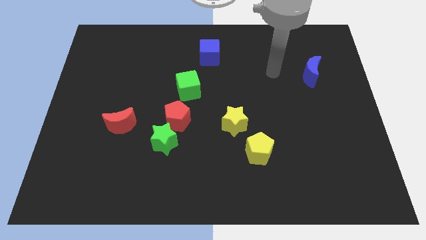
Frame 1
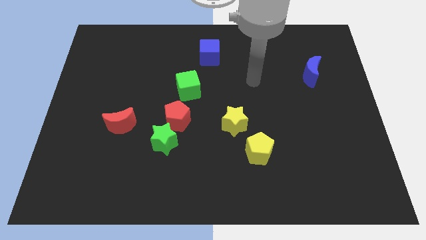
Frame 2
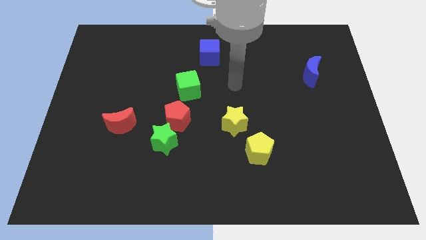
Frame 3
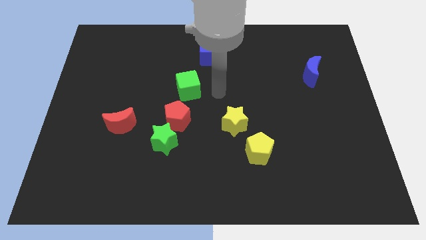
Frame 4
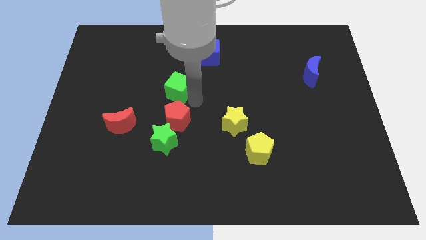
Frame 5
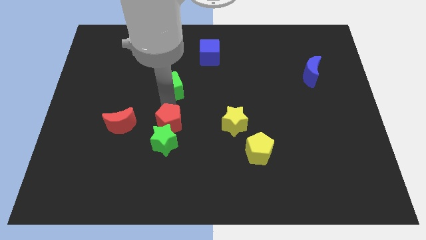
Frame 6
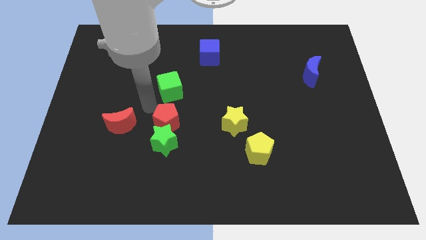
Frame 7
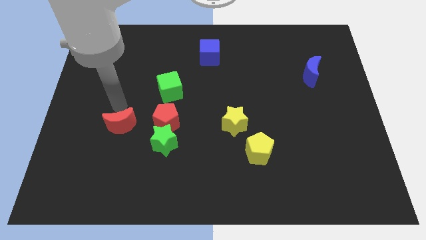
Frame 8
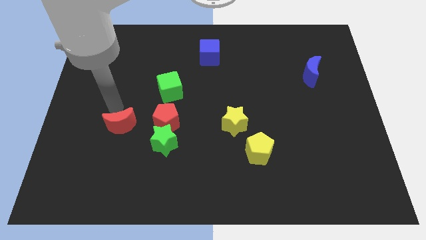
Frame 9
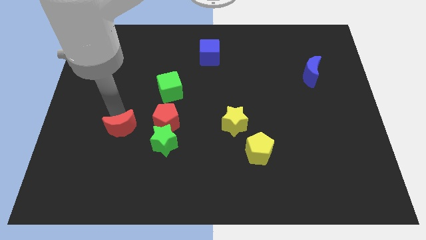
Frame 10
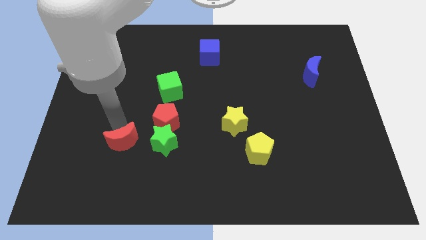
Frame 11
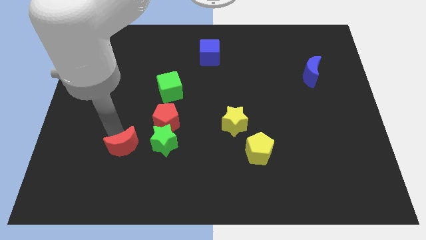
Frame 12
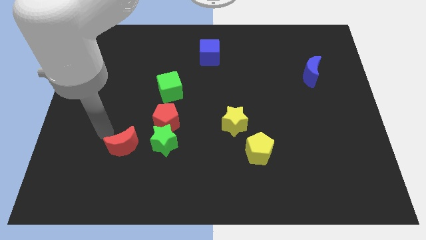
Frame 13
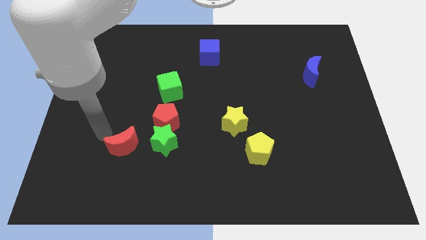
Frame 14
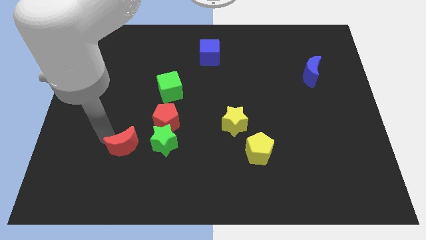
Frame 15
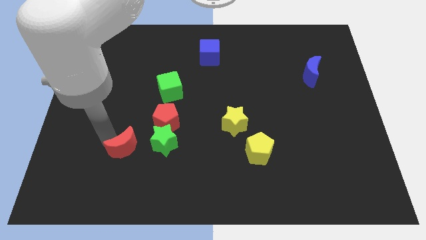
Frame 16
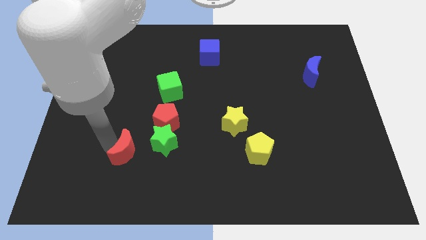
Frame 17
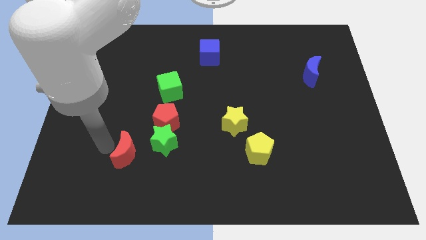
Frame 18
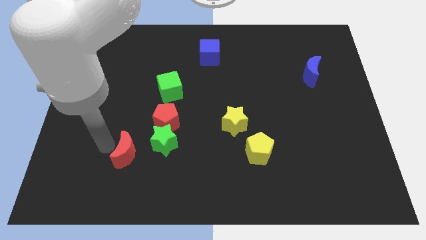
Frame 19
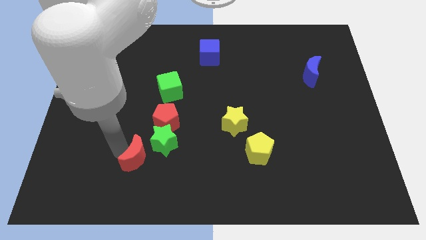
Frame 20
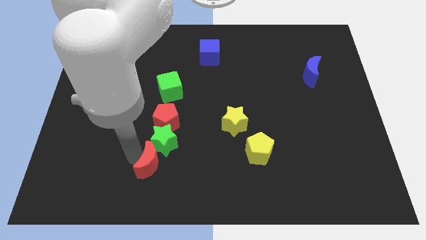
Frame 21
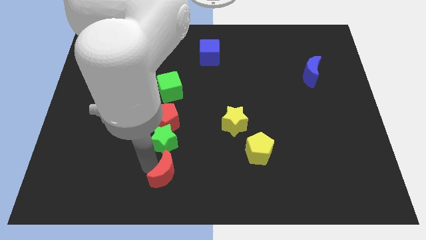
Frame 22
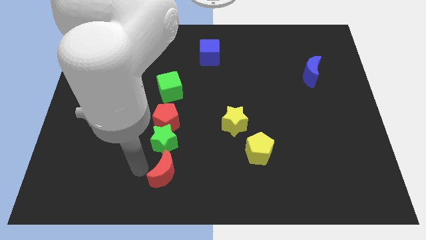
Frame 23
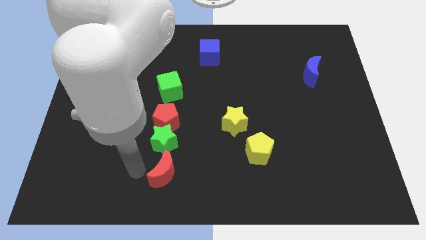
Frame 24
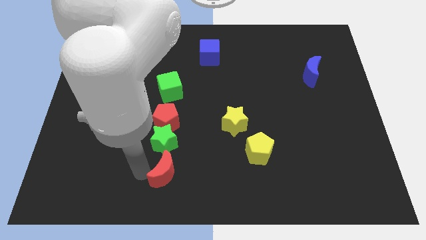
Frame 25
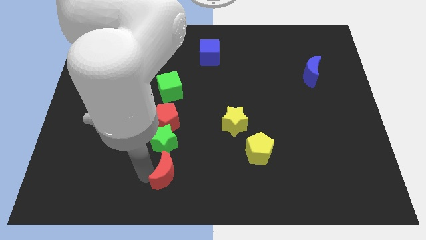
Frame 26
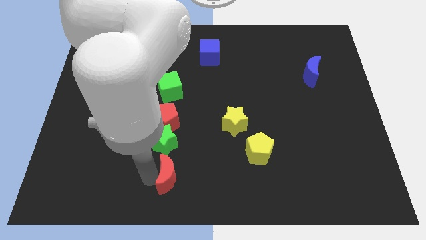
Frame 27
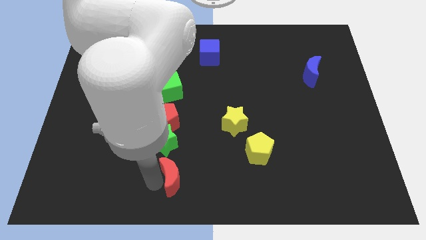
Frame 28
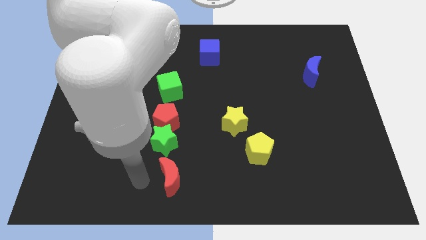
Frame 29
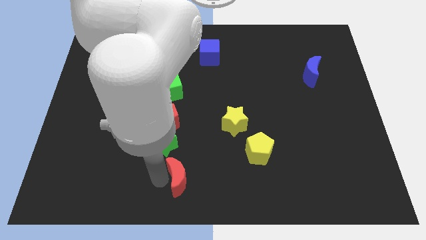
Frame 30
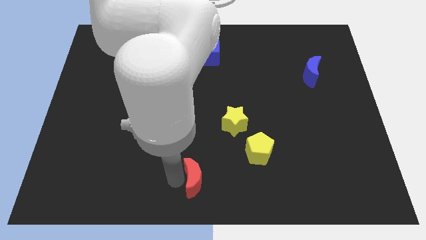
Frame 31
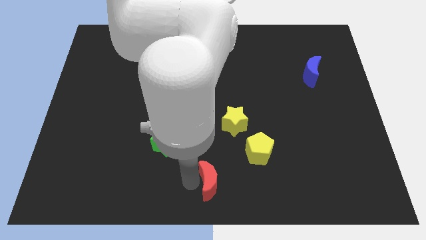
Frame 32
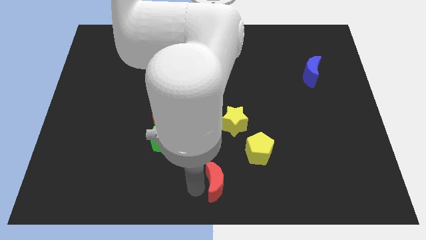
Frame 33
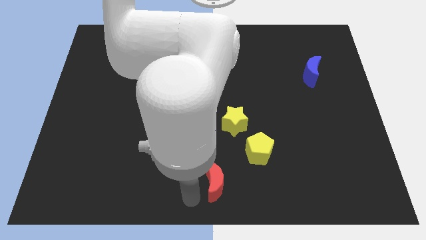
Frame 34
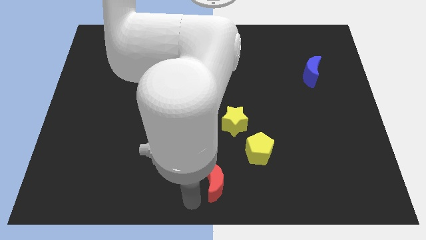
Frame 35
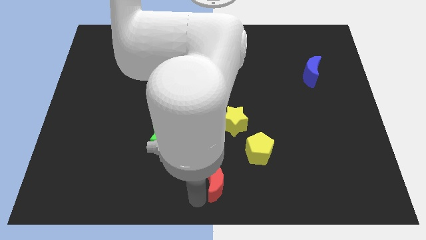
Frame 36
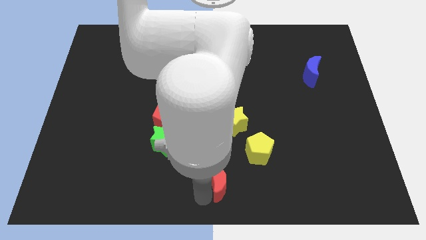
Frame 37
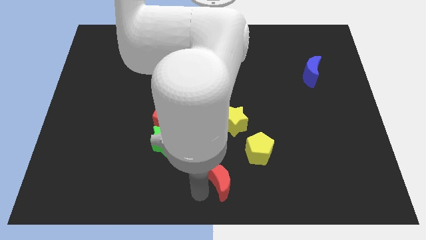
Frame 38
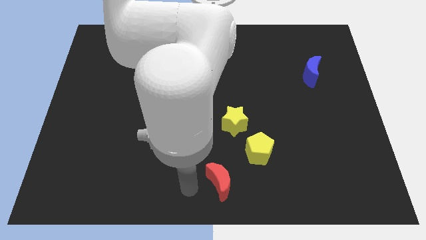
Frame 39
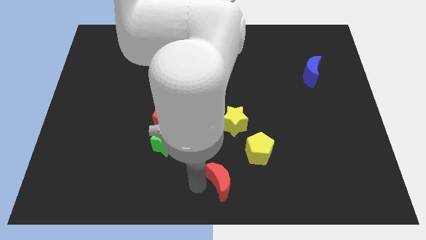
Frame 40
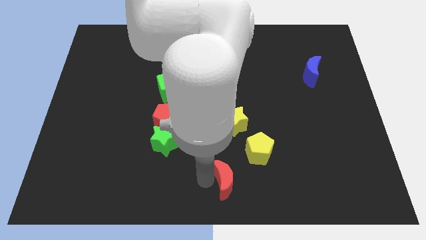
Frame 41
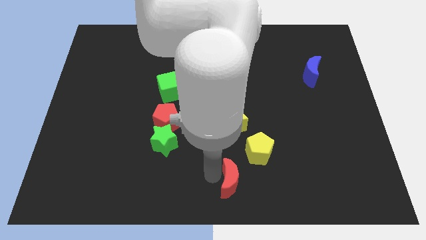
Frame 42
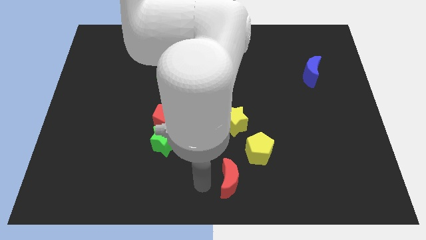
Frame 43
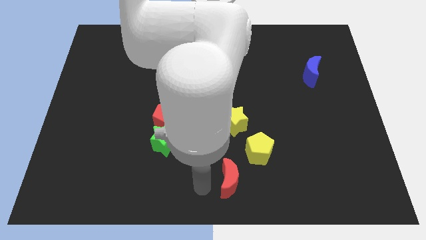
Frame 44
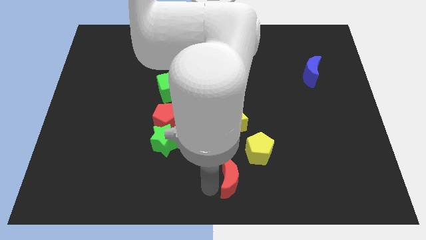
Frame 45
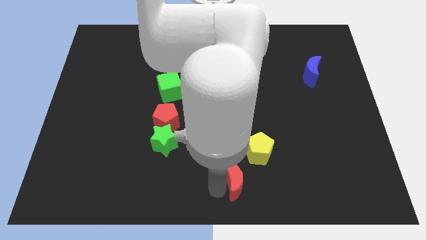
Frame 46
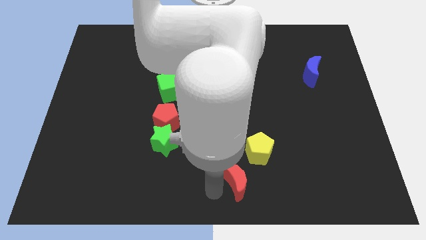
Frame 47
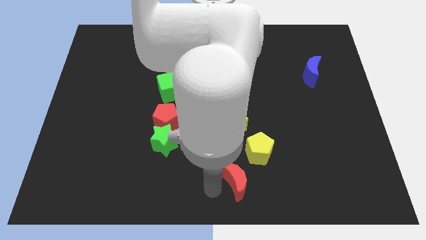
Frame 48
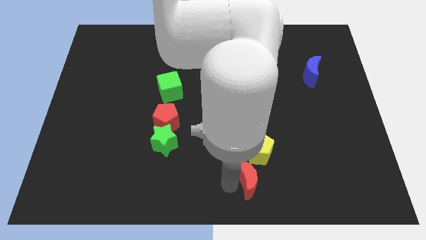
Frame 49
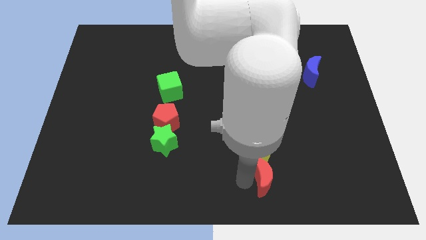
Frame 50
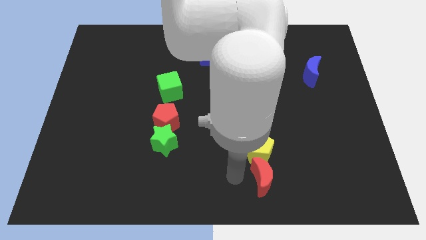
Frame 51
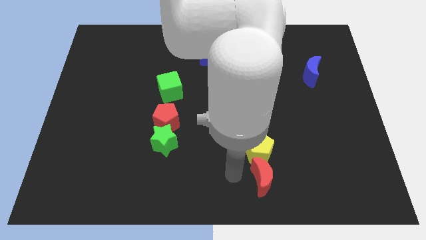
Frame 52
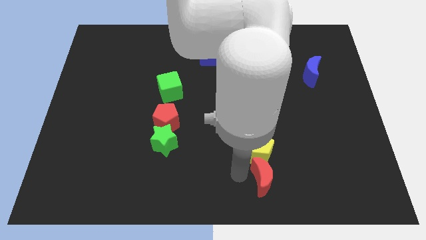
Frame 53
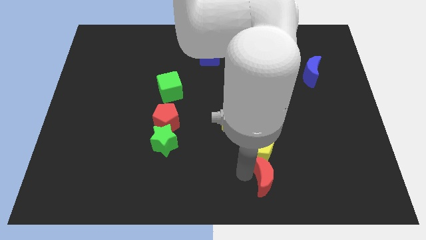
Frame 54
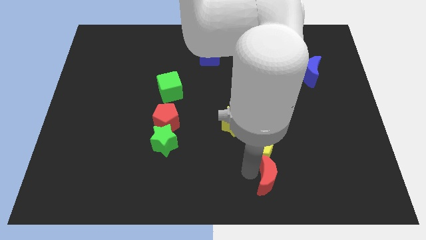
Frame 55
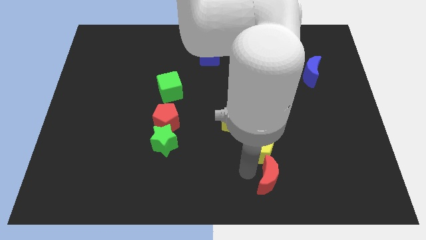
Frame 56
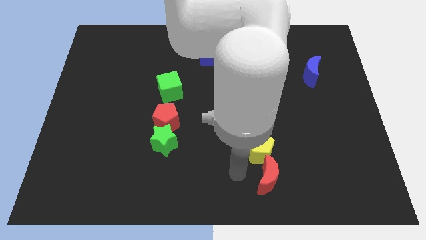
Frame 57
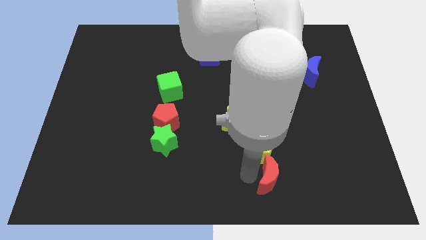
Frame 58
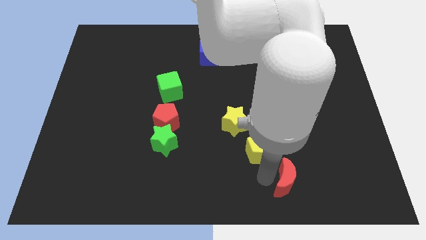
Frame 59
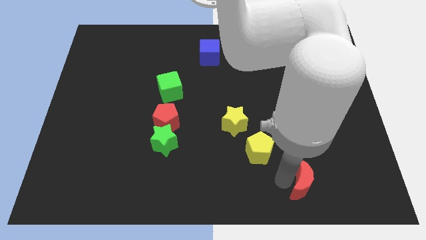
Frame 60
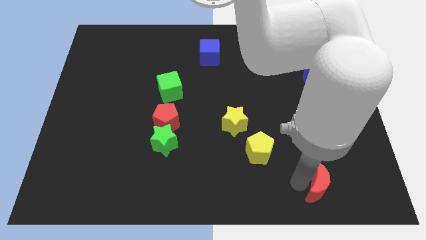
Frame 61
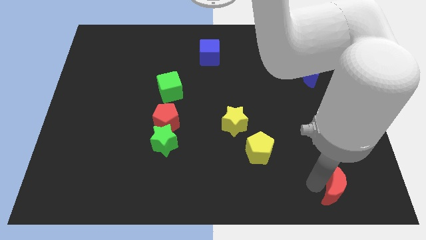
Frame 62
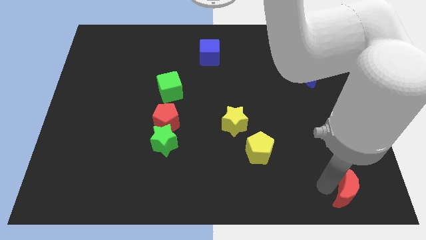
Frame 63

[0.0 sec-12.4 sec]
slide the red moon to the bottom right of the board
